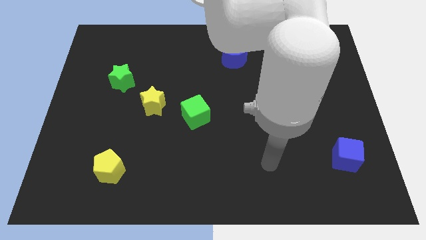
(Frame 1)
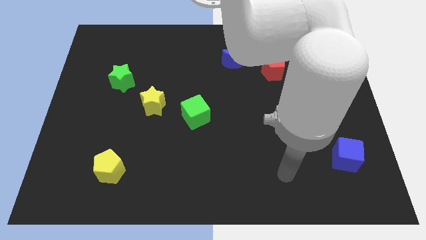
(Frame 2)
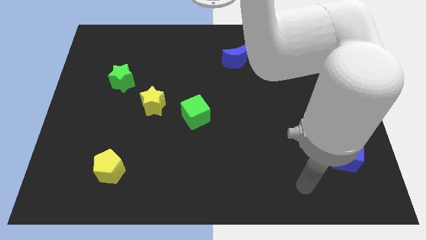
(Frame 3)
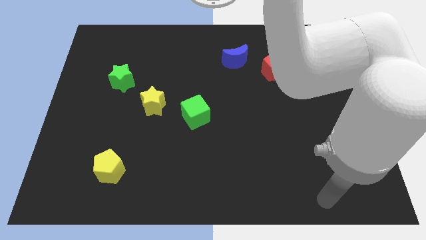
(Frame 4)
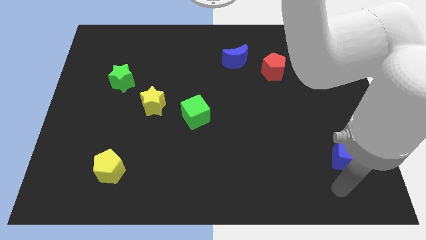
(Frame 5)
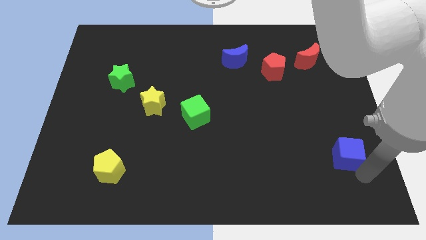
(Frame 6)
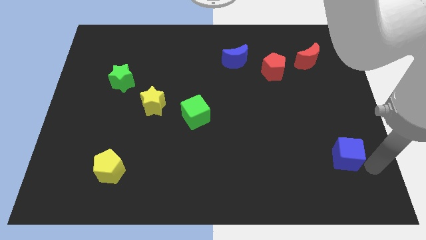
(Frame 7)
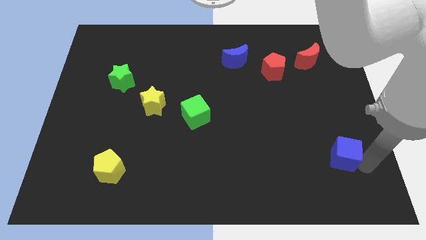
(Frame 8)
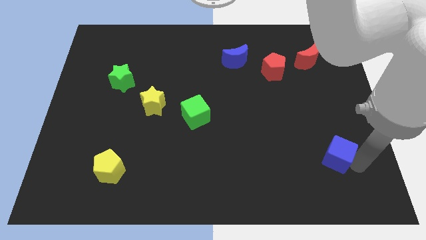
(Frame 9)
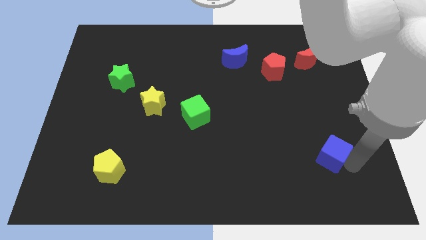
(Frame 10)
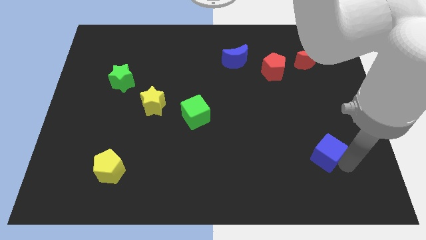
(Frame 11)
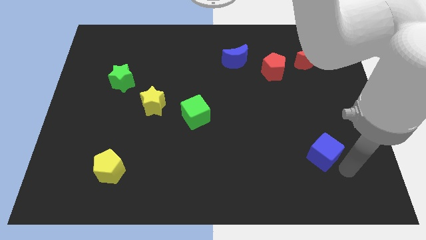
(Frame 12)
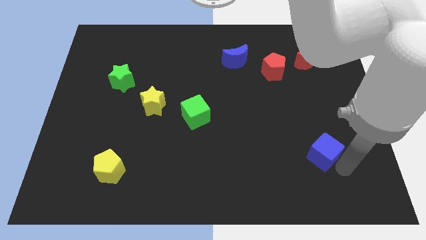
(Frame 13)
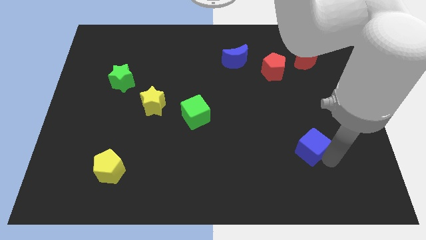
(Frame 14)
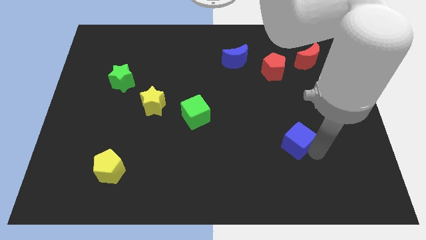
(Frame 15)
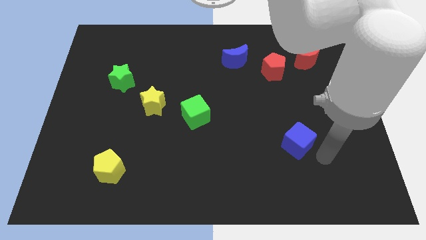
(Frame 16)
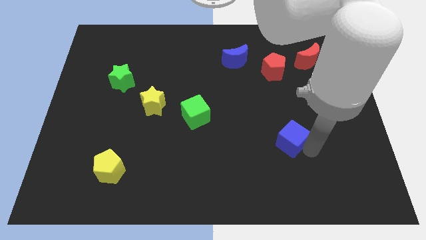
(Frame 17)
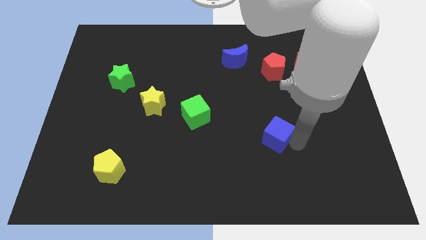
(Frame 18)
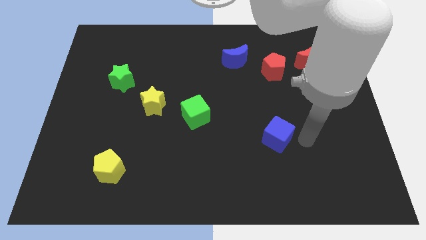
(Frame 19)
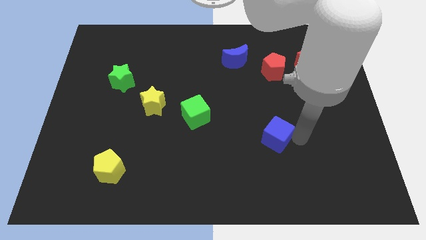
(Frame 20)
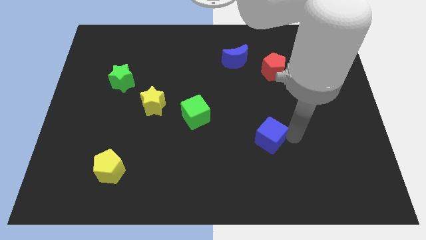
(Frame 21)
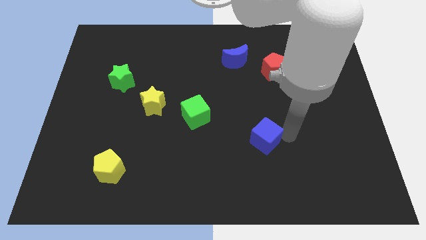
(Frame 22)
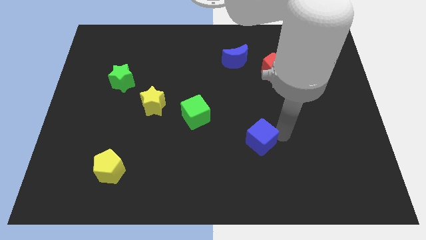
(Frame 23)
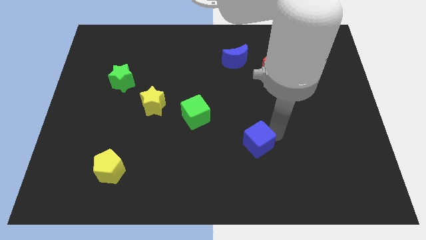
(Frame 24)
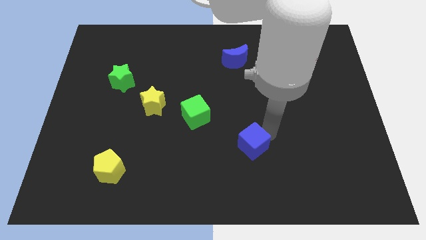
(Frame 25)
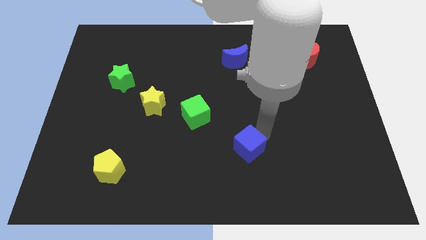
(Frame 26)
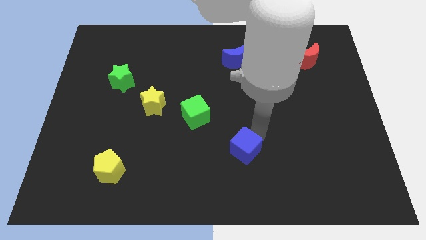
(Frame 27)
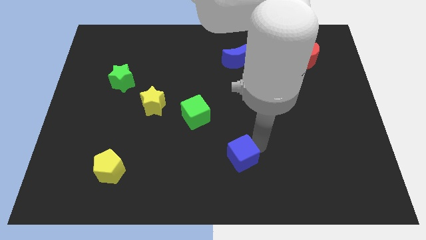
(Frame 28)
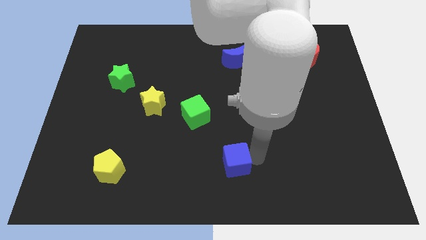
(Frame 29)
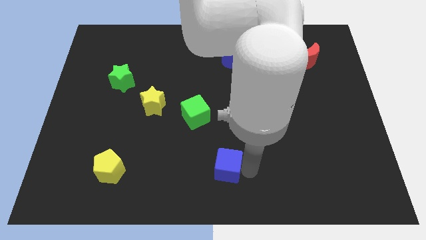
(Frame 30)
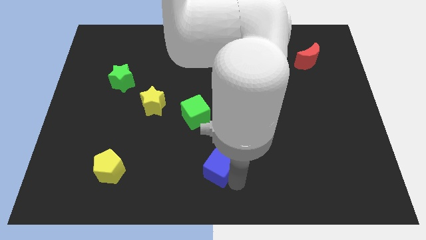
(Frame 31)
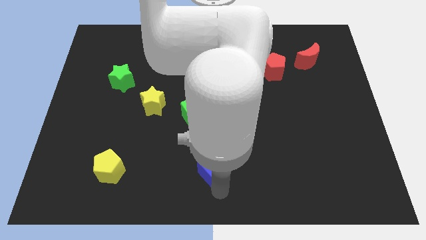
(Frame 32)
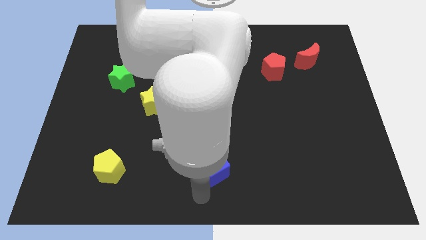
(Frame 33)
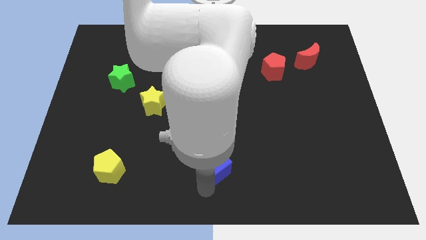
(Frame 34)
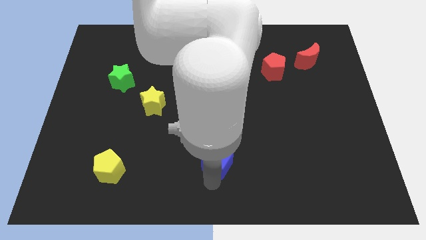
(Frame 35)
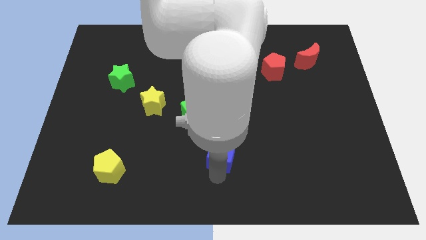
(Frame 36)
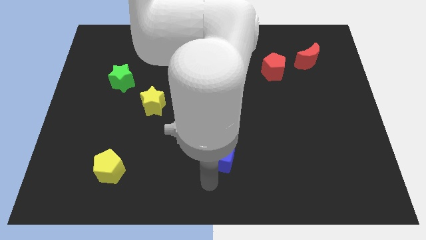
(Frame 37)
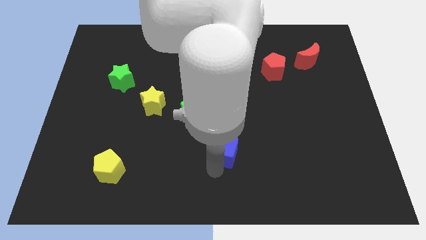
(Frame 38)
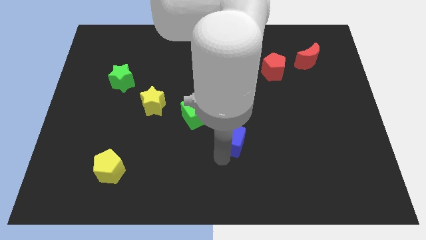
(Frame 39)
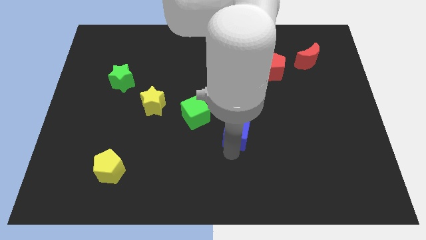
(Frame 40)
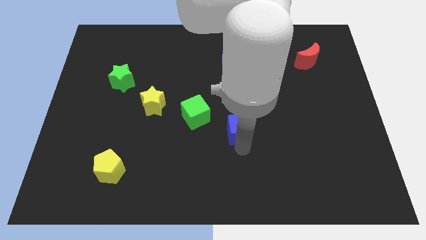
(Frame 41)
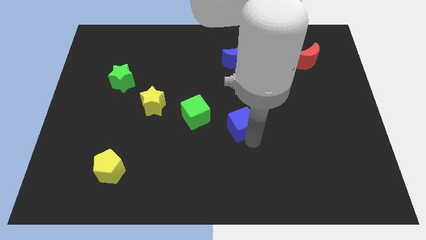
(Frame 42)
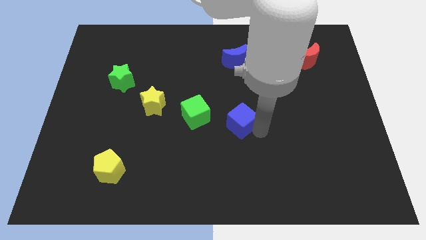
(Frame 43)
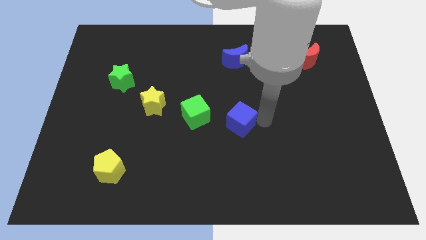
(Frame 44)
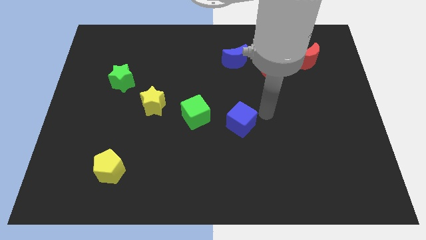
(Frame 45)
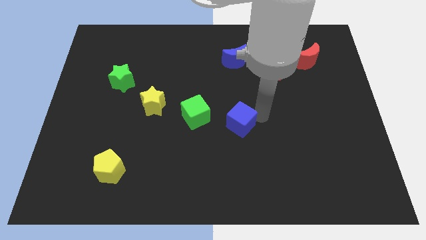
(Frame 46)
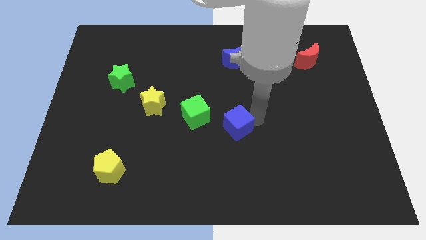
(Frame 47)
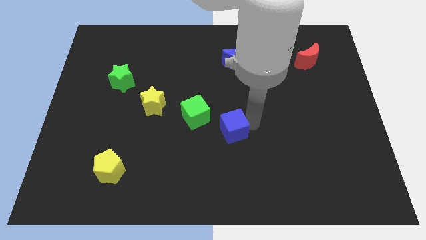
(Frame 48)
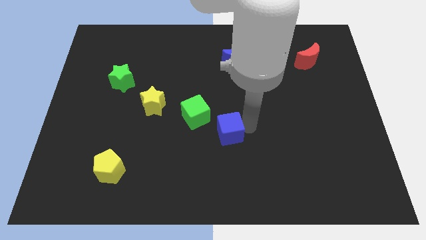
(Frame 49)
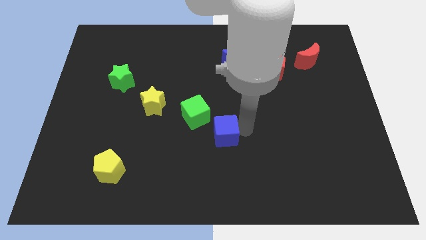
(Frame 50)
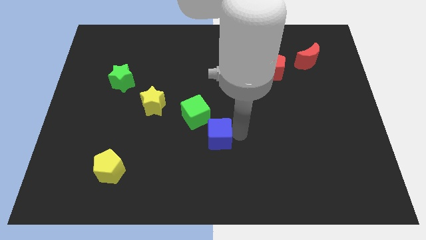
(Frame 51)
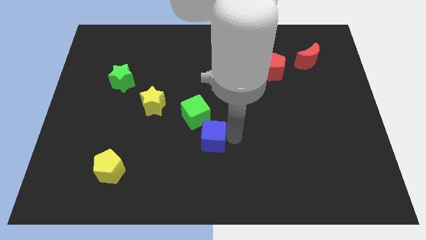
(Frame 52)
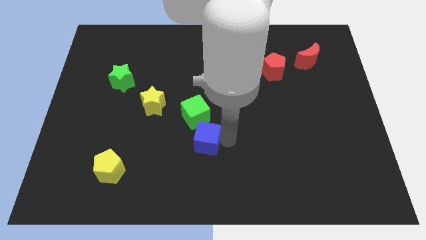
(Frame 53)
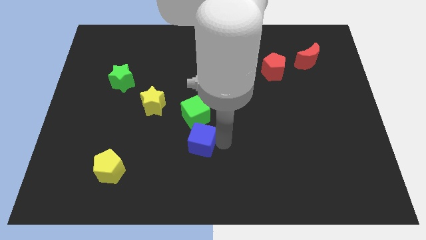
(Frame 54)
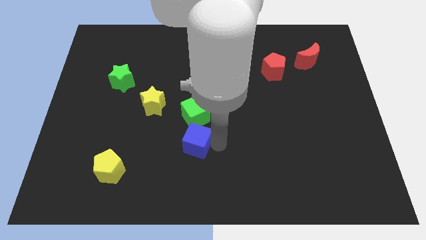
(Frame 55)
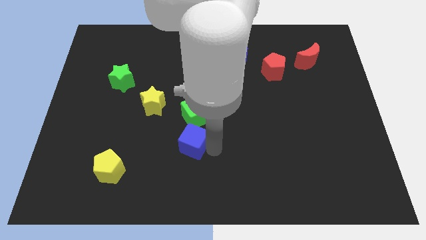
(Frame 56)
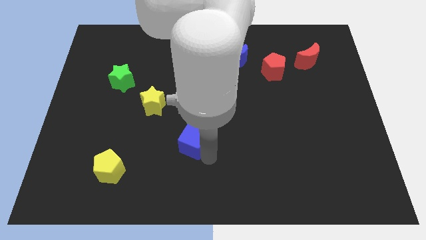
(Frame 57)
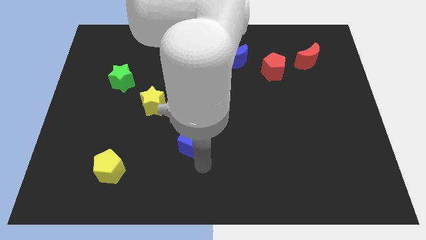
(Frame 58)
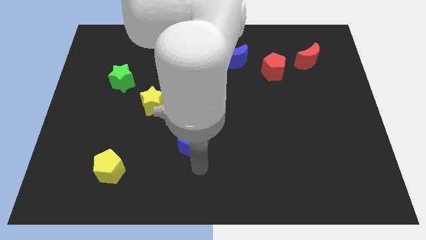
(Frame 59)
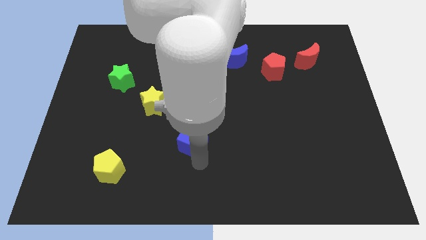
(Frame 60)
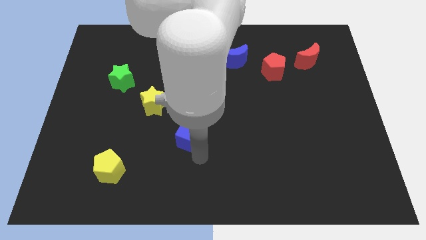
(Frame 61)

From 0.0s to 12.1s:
move the blue cube diagonally down and to the right of the yellow star

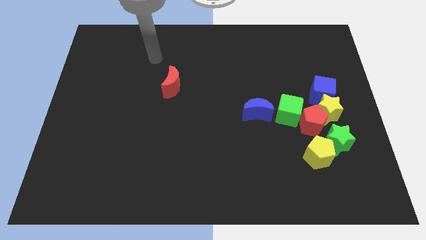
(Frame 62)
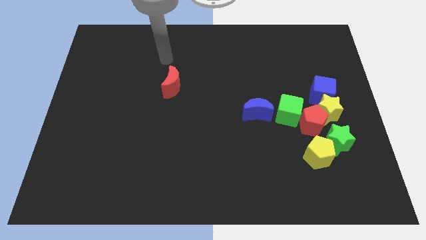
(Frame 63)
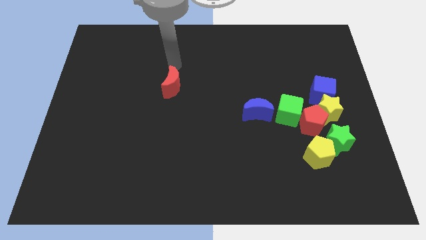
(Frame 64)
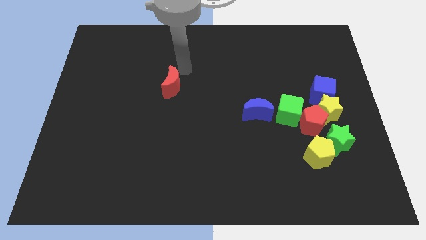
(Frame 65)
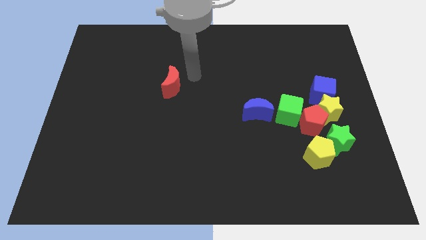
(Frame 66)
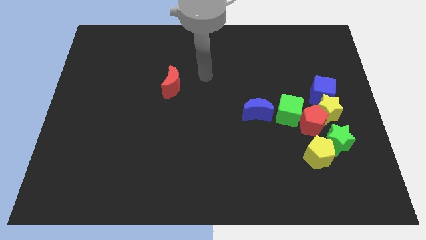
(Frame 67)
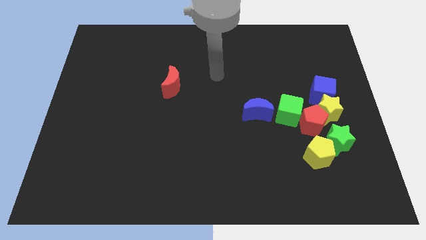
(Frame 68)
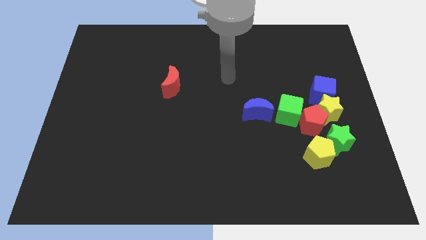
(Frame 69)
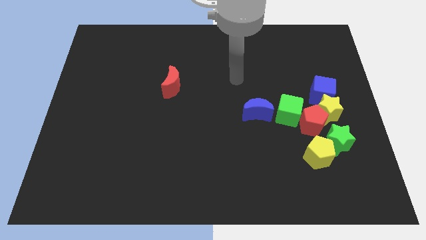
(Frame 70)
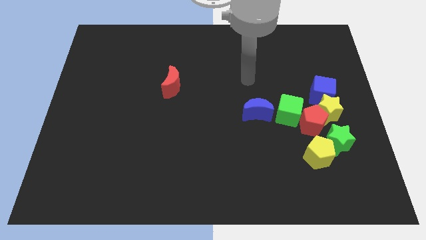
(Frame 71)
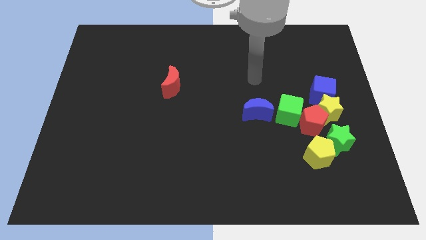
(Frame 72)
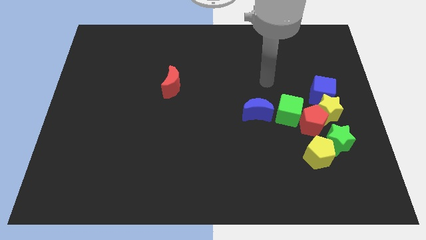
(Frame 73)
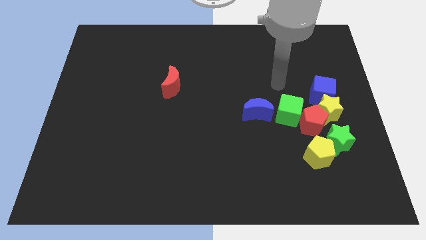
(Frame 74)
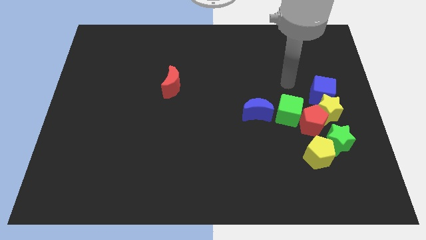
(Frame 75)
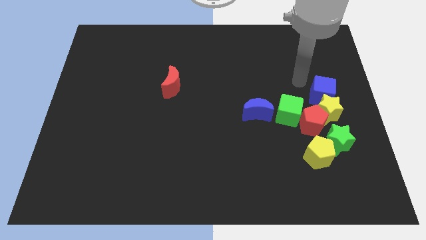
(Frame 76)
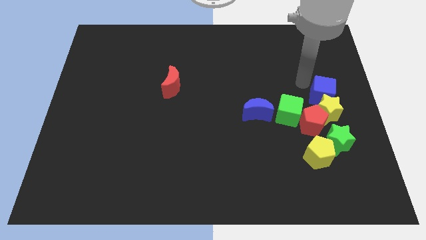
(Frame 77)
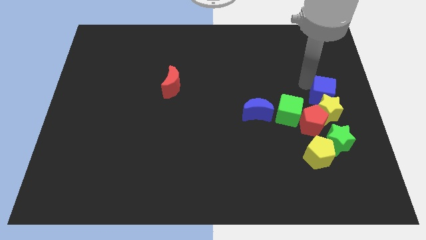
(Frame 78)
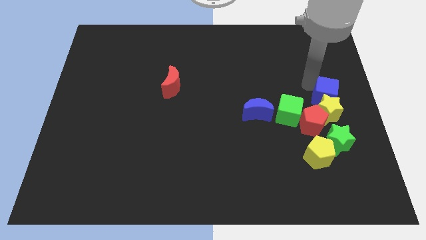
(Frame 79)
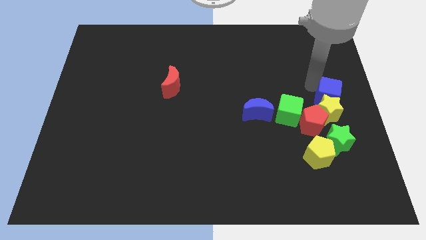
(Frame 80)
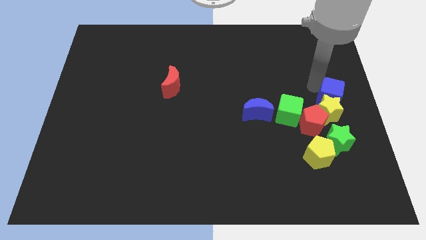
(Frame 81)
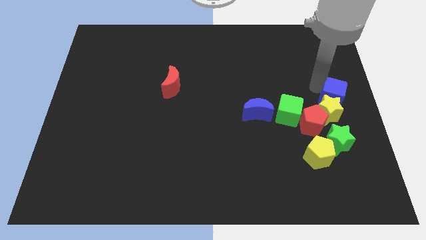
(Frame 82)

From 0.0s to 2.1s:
slide the blue cube to the right of the green cube
